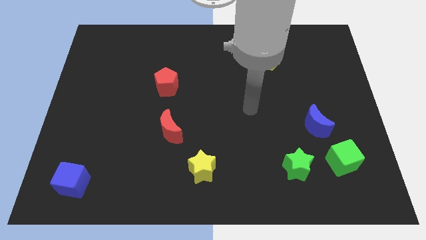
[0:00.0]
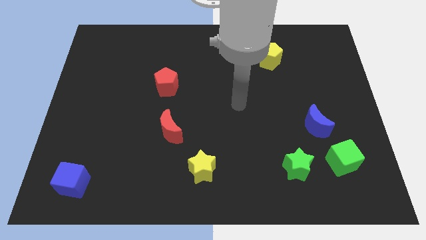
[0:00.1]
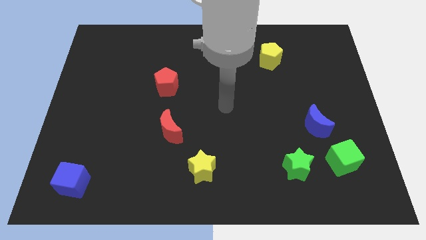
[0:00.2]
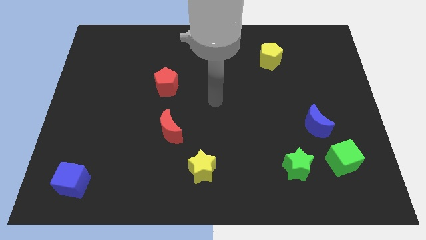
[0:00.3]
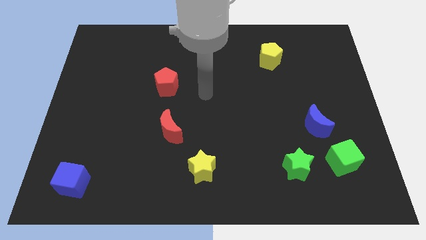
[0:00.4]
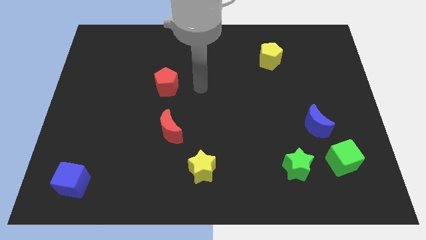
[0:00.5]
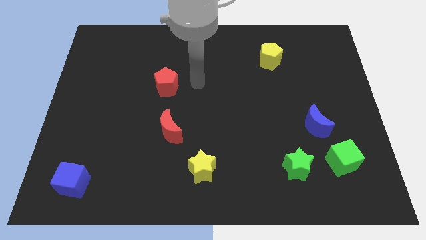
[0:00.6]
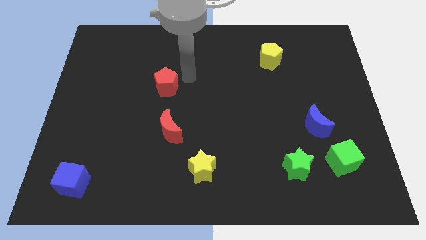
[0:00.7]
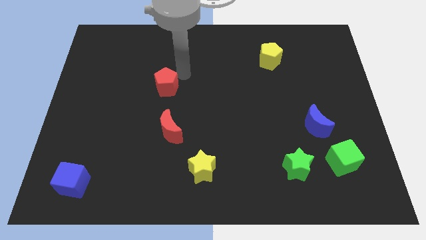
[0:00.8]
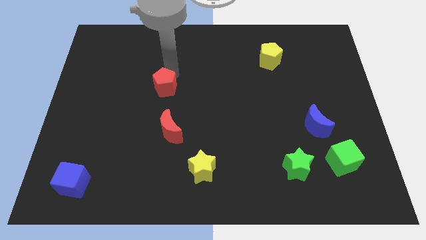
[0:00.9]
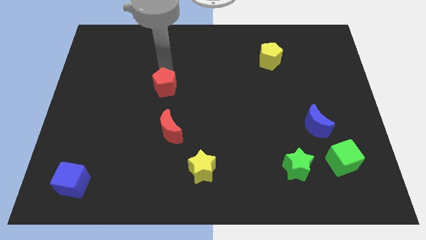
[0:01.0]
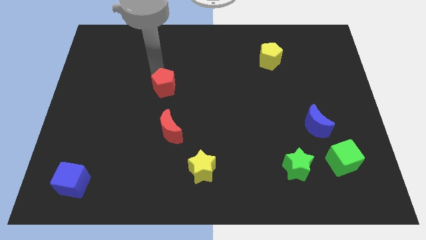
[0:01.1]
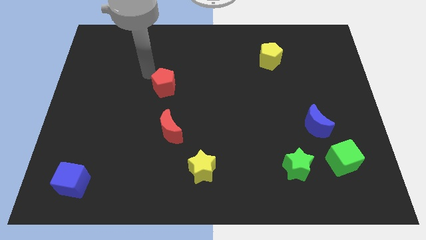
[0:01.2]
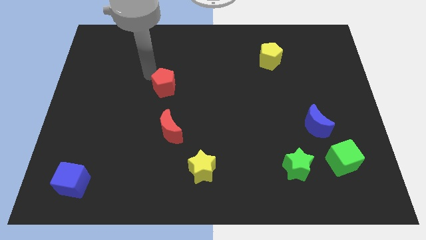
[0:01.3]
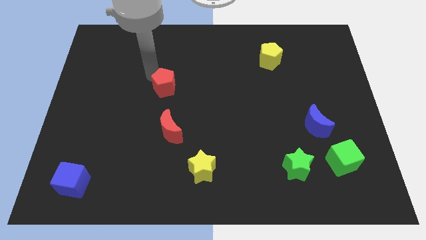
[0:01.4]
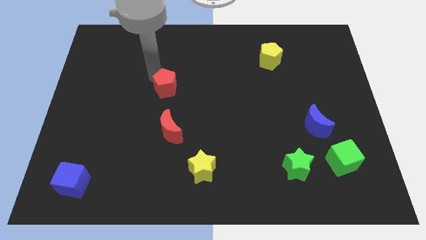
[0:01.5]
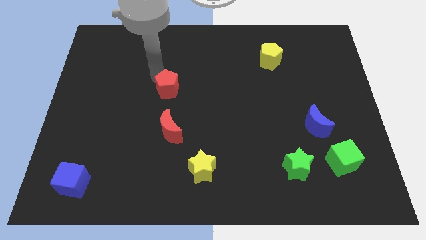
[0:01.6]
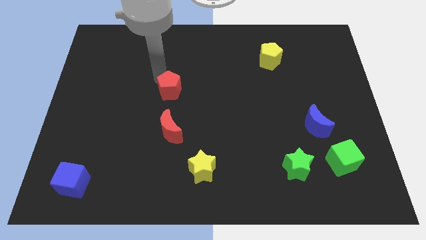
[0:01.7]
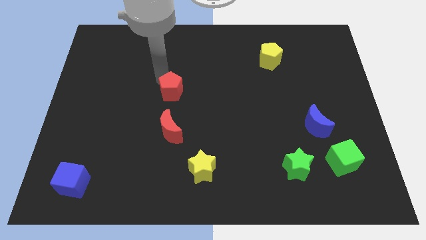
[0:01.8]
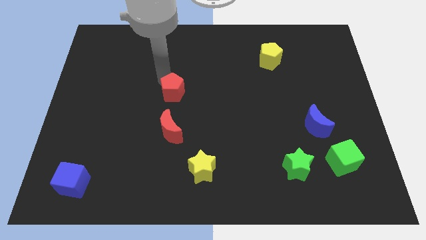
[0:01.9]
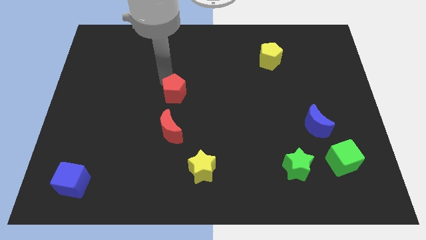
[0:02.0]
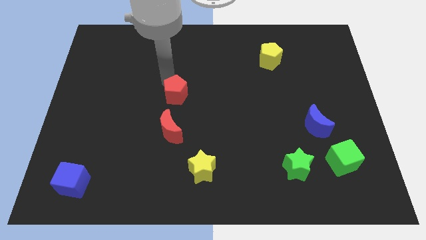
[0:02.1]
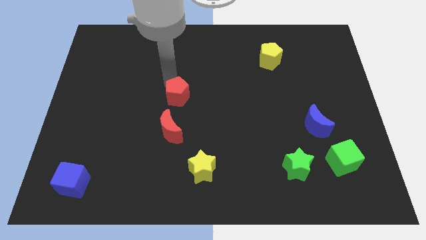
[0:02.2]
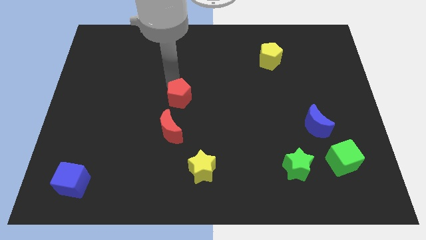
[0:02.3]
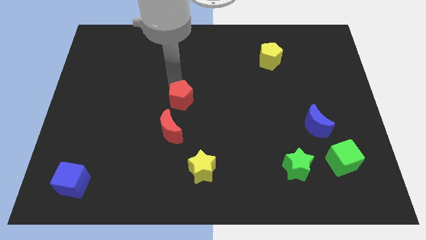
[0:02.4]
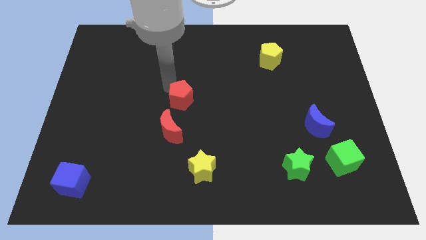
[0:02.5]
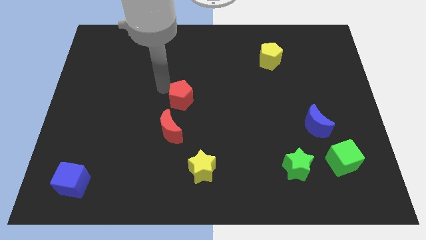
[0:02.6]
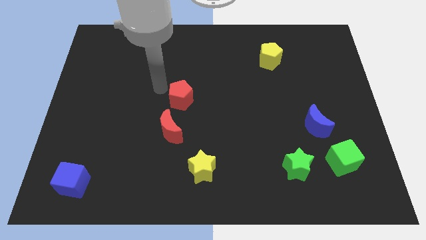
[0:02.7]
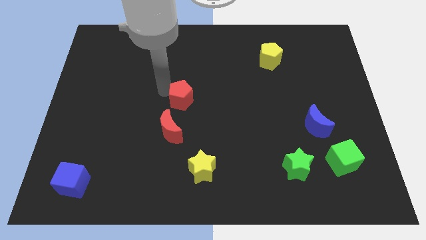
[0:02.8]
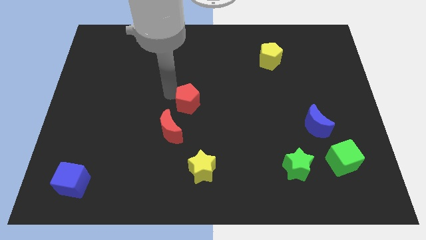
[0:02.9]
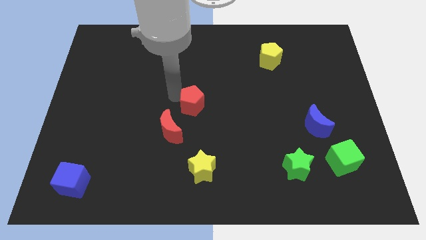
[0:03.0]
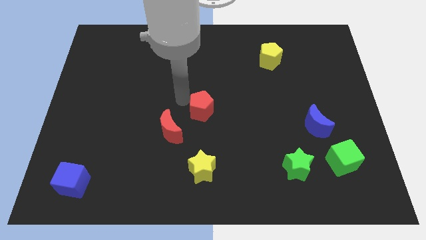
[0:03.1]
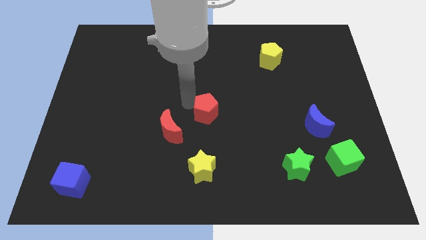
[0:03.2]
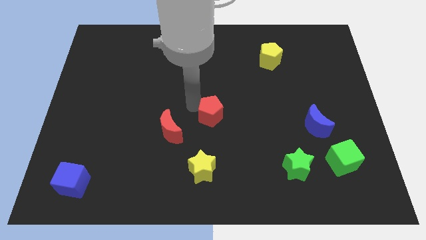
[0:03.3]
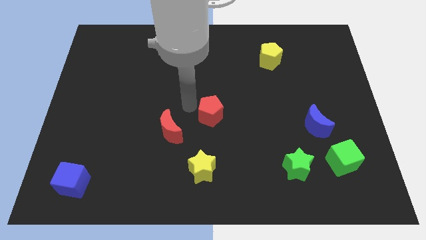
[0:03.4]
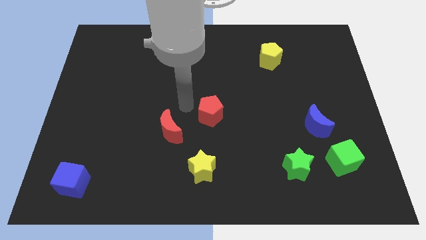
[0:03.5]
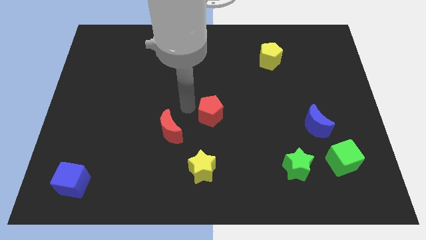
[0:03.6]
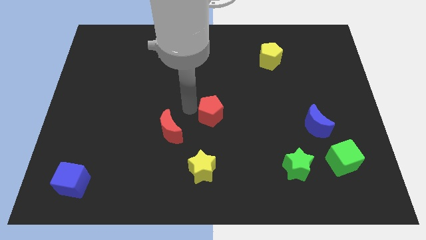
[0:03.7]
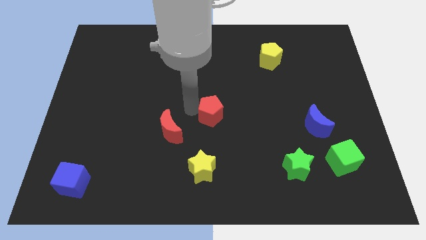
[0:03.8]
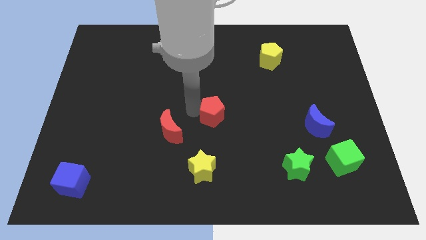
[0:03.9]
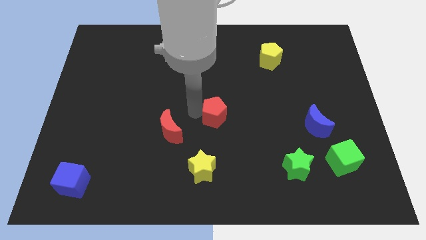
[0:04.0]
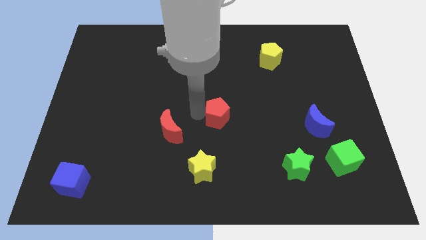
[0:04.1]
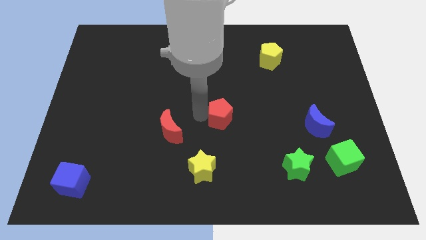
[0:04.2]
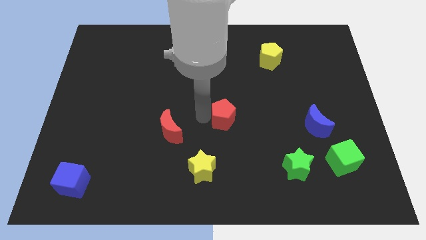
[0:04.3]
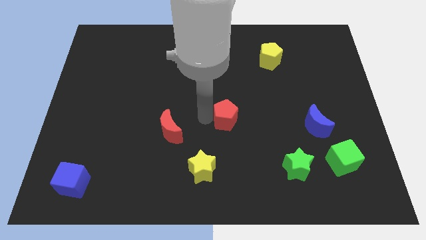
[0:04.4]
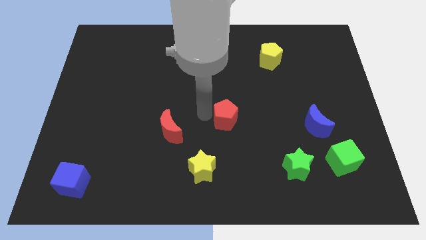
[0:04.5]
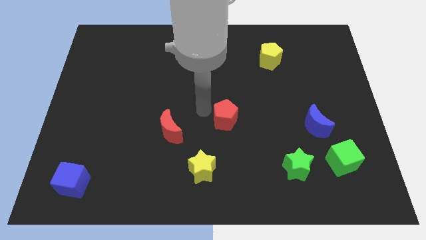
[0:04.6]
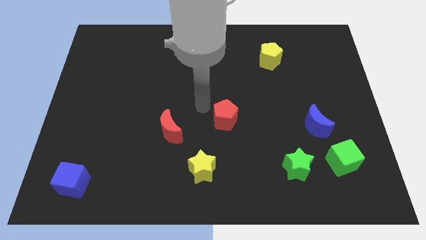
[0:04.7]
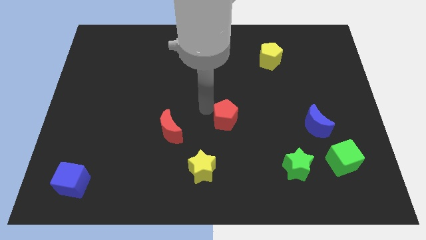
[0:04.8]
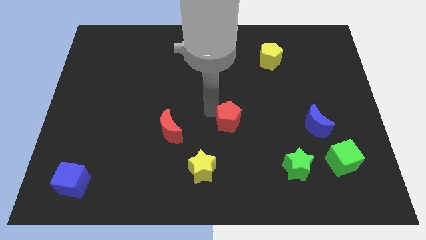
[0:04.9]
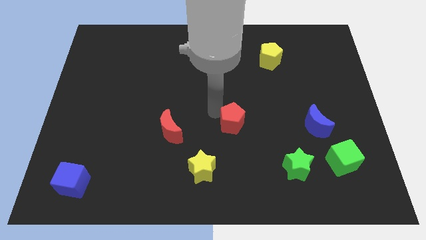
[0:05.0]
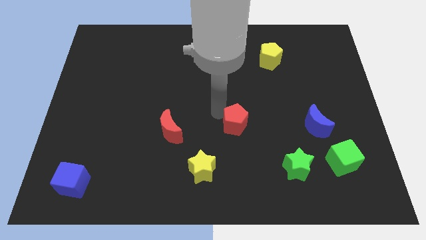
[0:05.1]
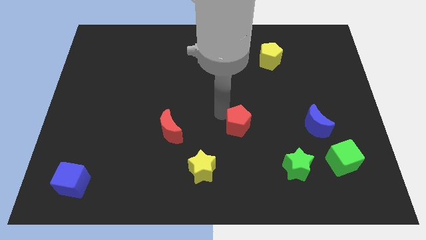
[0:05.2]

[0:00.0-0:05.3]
push the red pentagon down and right

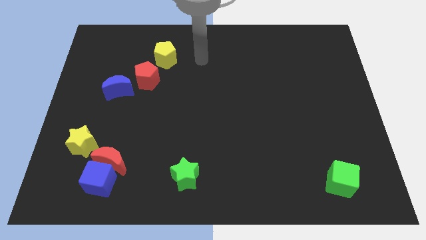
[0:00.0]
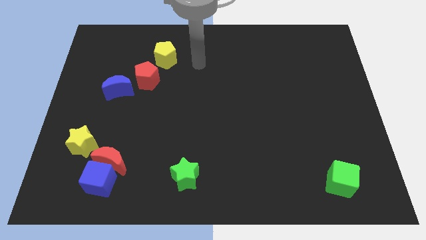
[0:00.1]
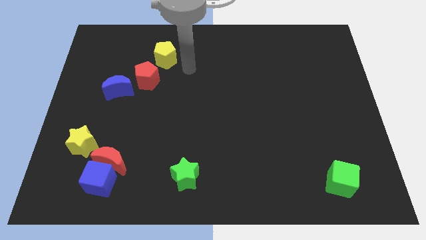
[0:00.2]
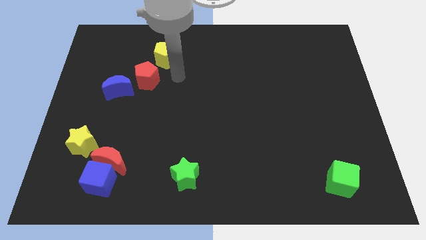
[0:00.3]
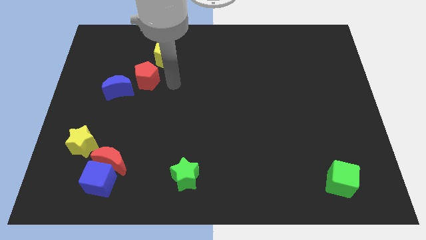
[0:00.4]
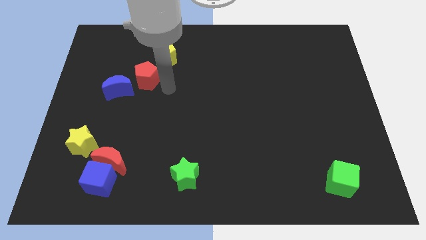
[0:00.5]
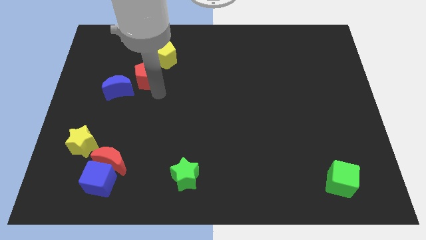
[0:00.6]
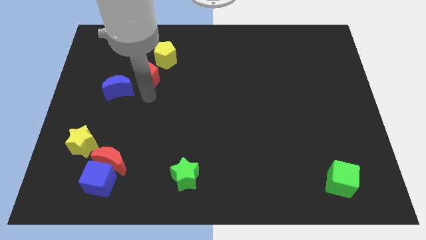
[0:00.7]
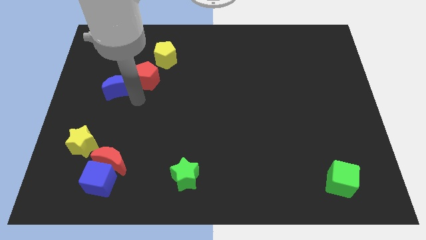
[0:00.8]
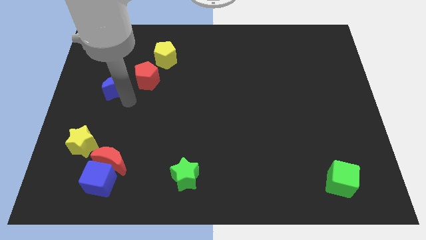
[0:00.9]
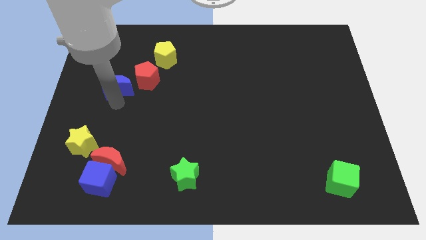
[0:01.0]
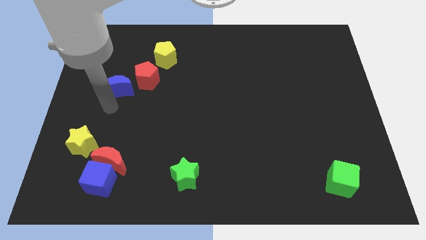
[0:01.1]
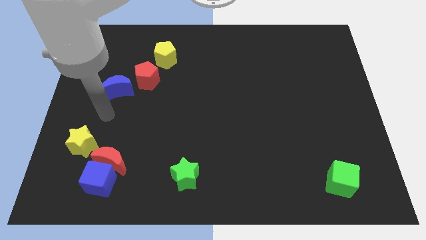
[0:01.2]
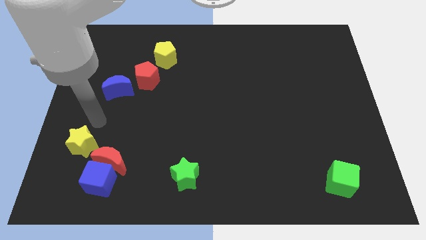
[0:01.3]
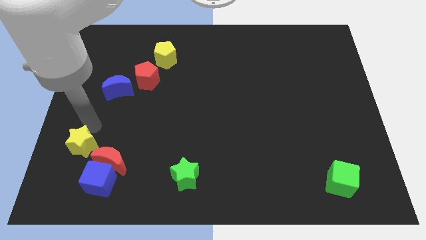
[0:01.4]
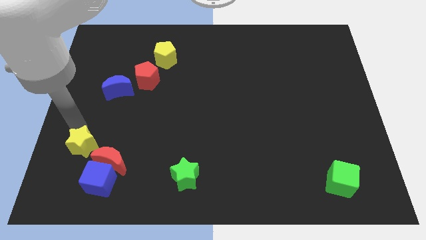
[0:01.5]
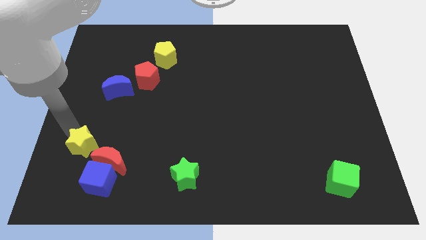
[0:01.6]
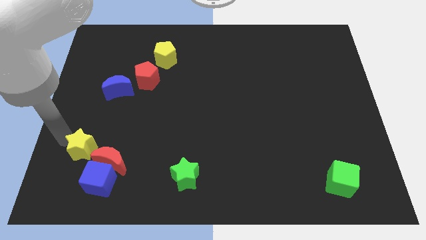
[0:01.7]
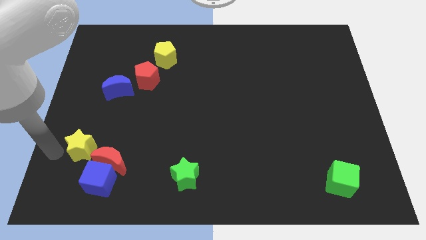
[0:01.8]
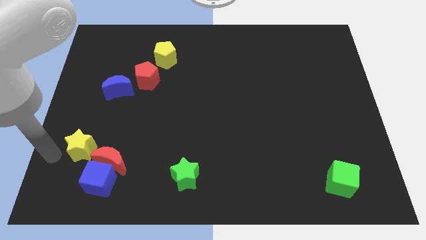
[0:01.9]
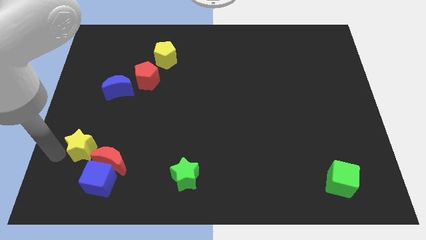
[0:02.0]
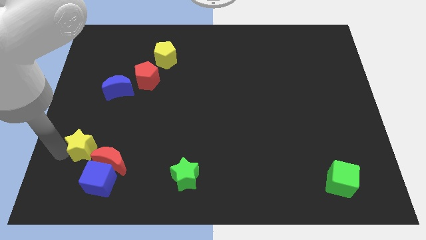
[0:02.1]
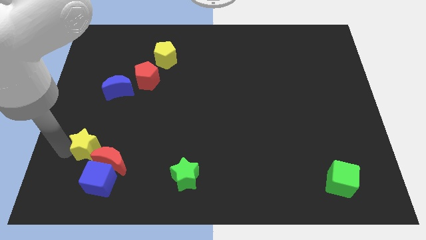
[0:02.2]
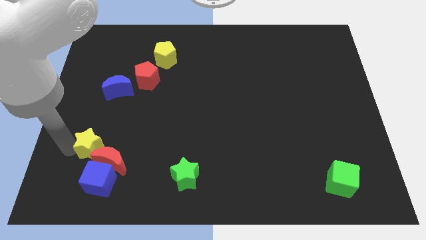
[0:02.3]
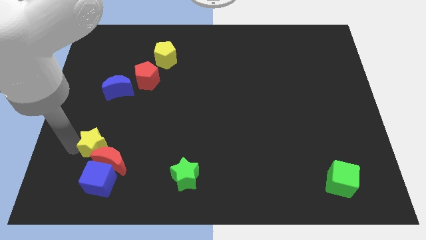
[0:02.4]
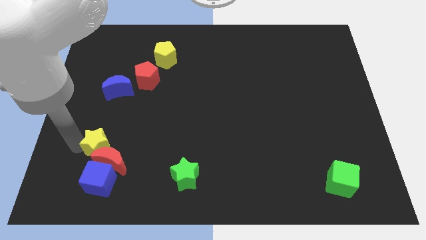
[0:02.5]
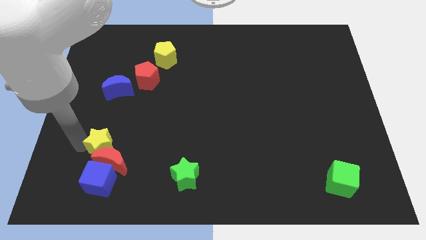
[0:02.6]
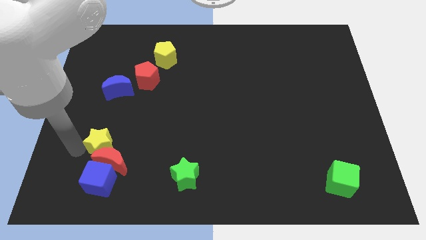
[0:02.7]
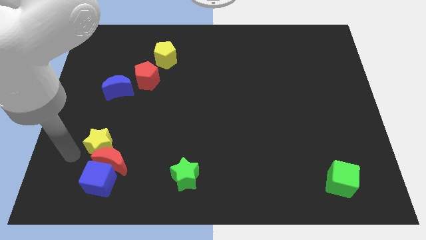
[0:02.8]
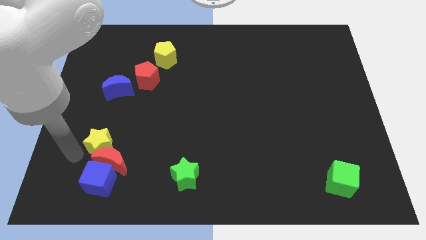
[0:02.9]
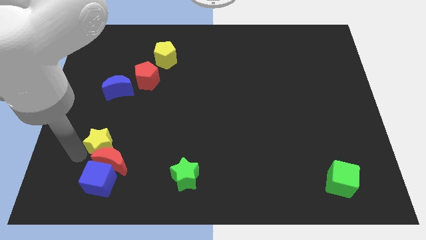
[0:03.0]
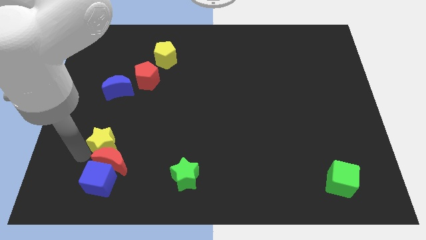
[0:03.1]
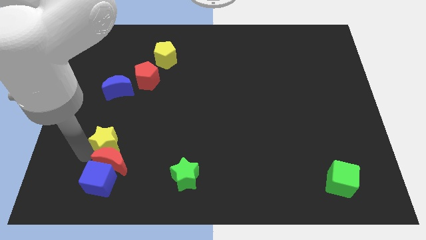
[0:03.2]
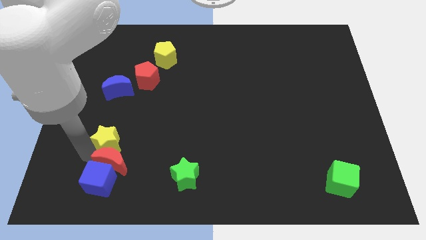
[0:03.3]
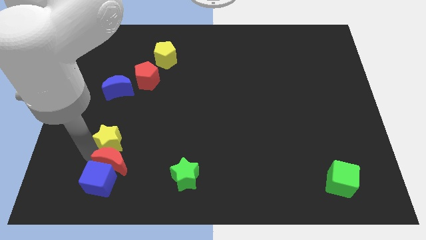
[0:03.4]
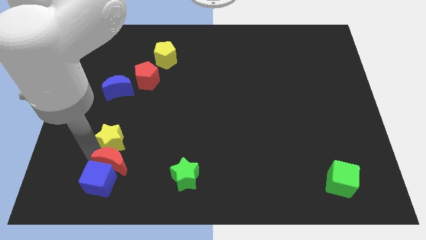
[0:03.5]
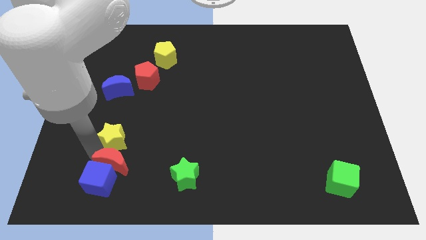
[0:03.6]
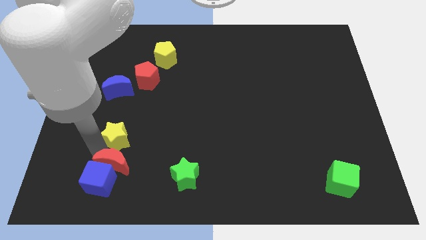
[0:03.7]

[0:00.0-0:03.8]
slightly push the yellow star to the right
